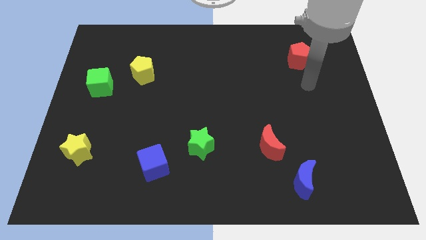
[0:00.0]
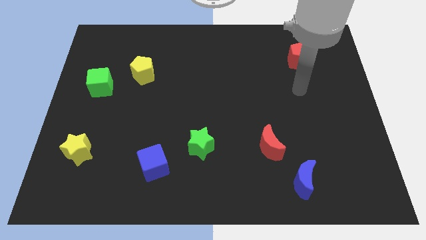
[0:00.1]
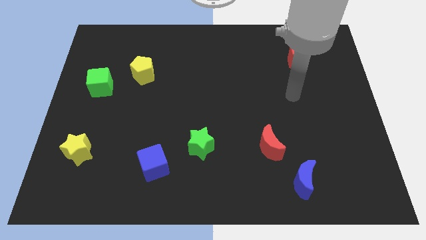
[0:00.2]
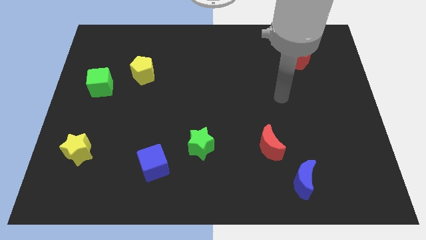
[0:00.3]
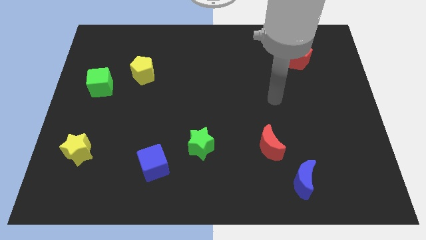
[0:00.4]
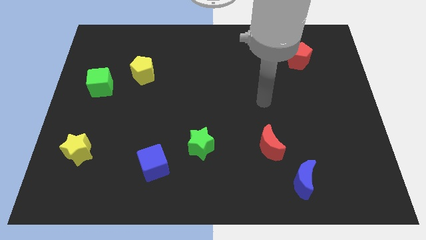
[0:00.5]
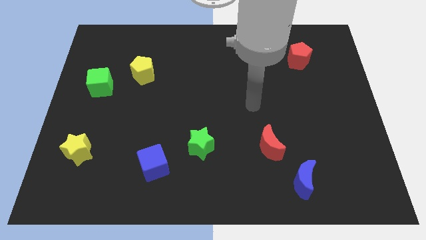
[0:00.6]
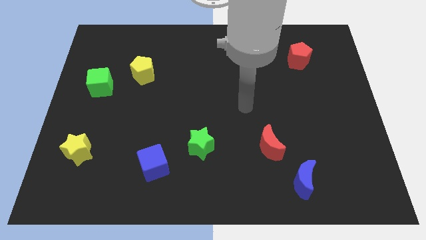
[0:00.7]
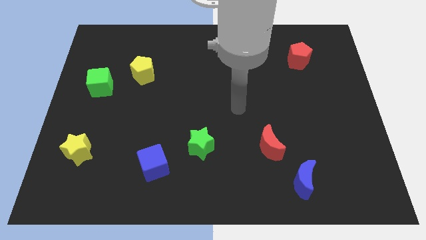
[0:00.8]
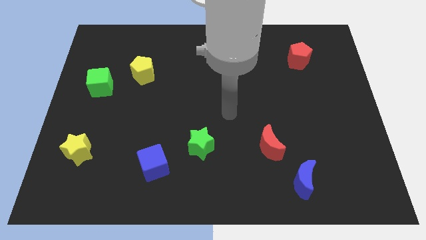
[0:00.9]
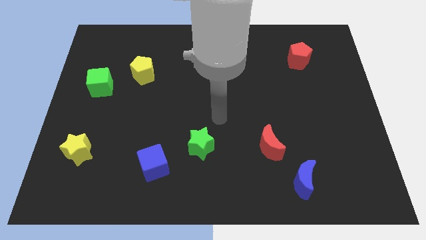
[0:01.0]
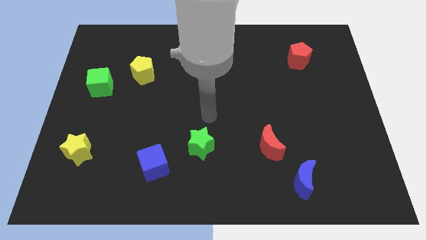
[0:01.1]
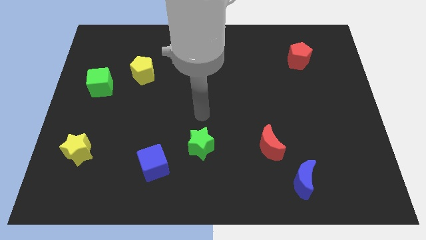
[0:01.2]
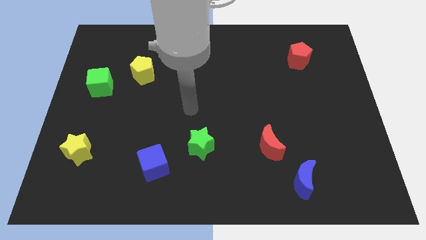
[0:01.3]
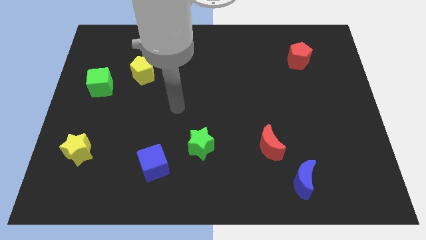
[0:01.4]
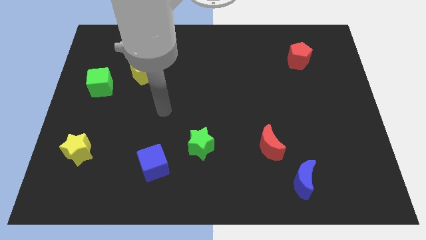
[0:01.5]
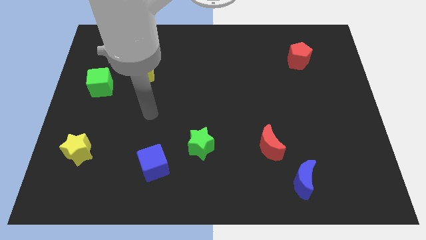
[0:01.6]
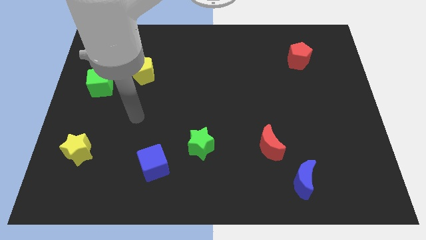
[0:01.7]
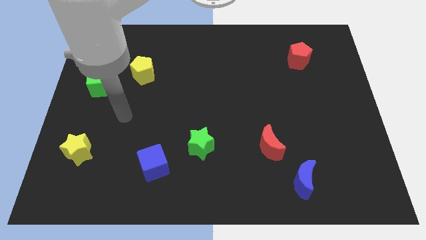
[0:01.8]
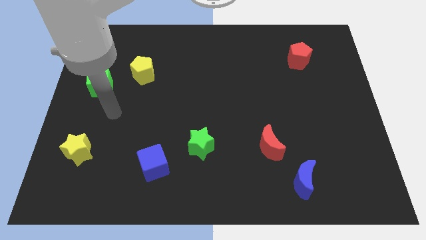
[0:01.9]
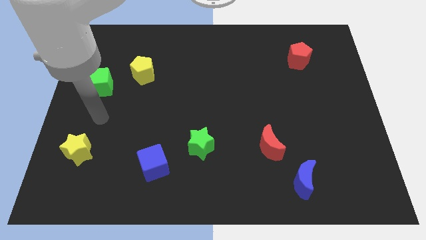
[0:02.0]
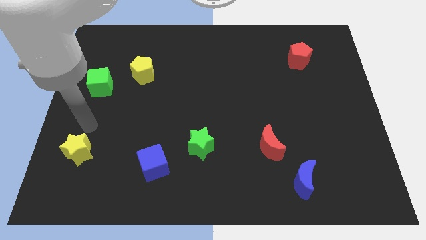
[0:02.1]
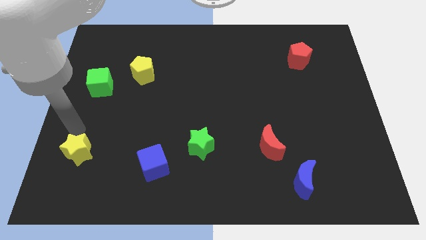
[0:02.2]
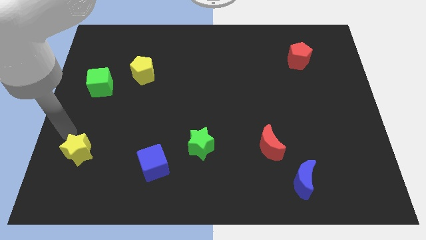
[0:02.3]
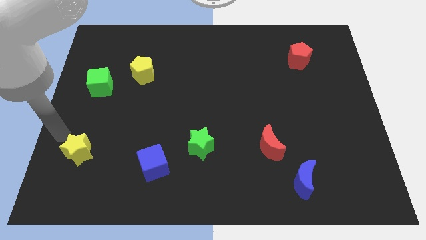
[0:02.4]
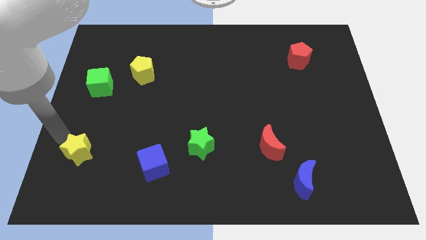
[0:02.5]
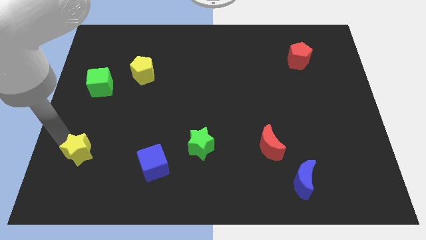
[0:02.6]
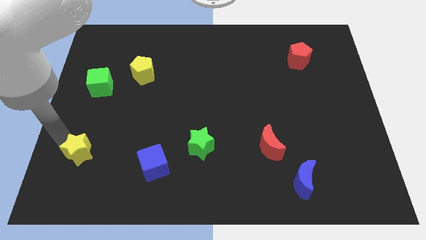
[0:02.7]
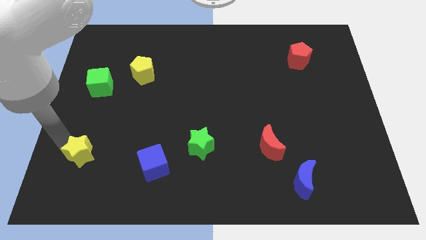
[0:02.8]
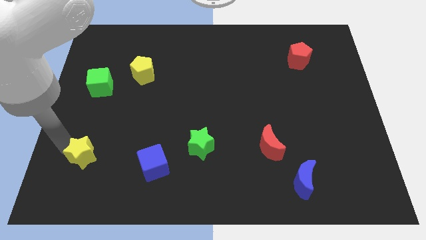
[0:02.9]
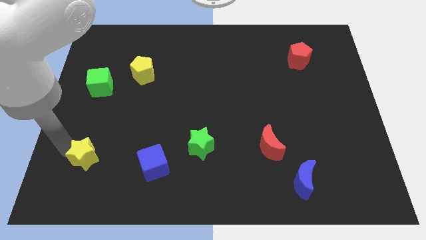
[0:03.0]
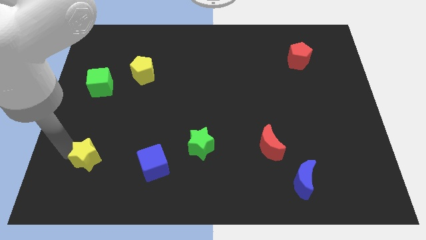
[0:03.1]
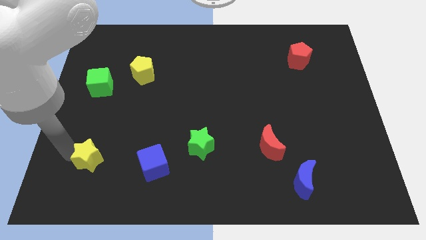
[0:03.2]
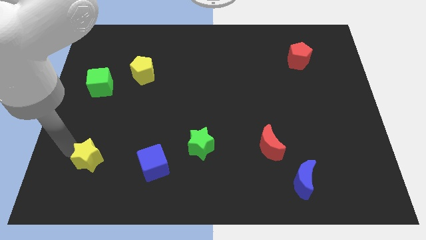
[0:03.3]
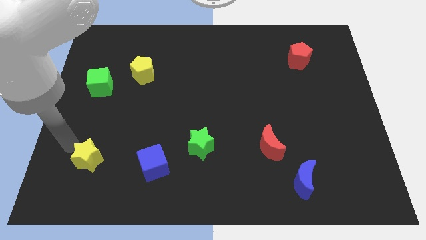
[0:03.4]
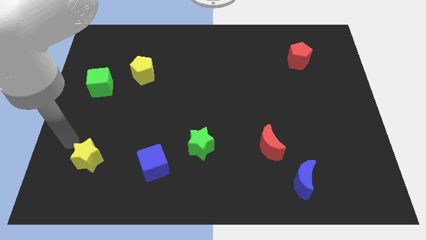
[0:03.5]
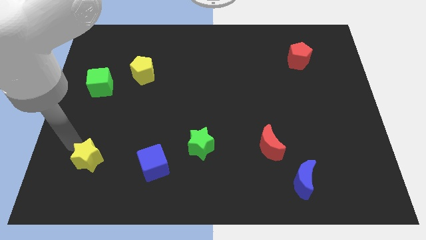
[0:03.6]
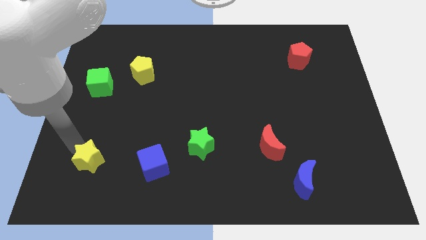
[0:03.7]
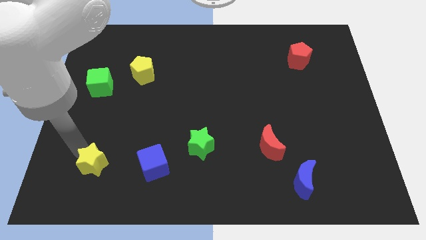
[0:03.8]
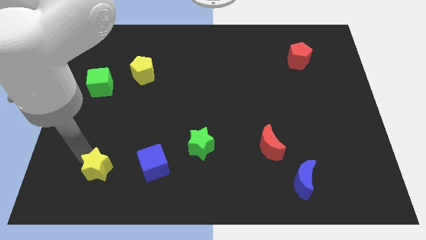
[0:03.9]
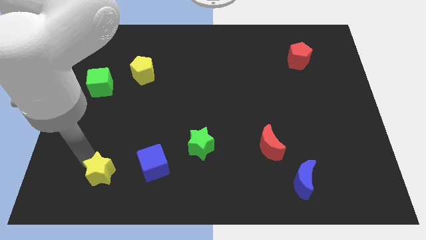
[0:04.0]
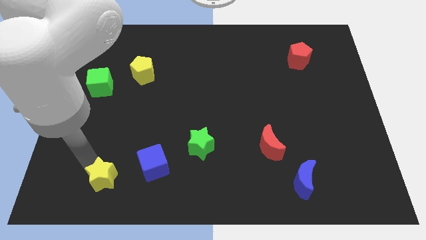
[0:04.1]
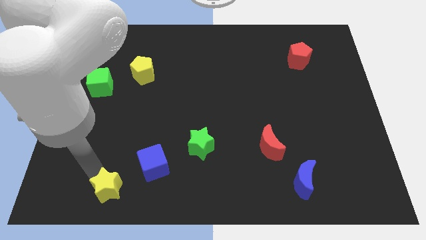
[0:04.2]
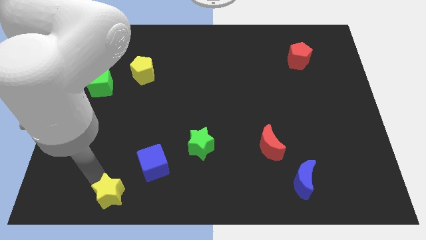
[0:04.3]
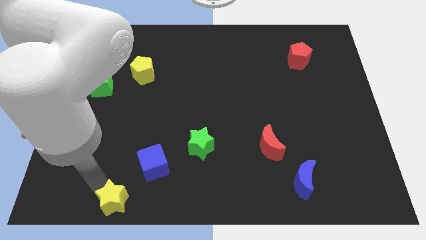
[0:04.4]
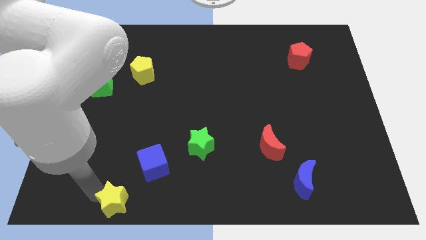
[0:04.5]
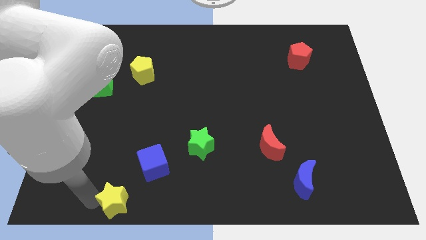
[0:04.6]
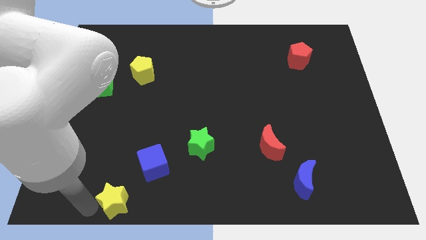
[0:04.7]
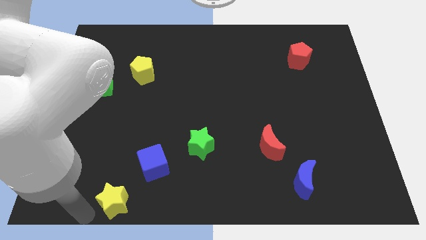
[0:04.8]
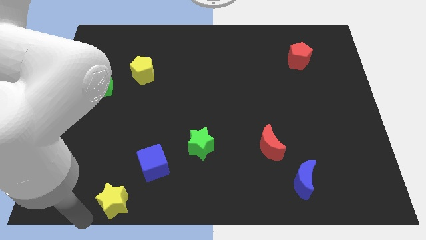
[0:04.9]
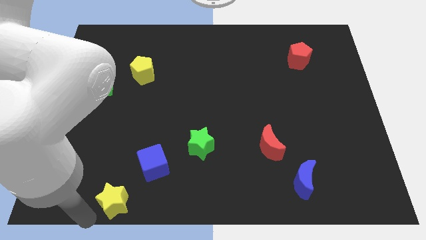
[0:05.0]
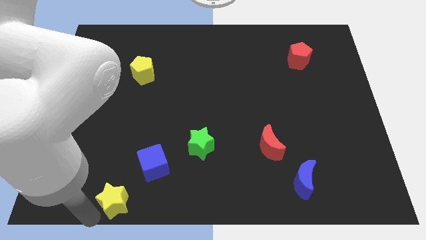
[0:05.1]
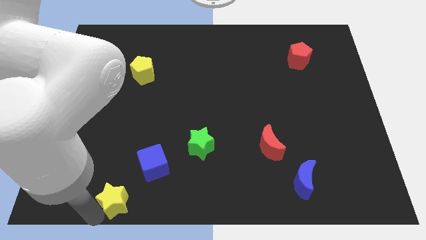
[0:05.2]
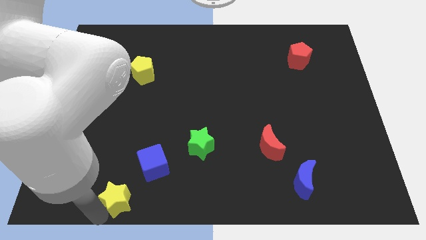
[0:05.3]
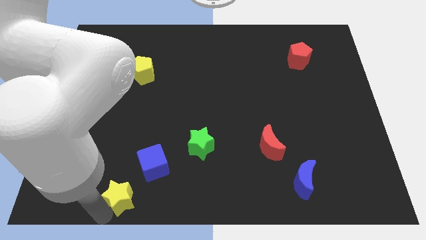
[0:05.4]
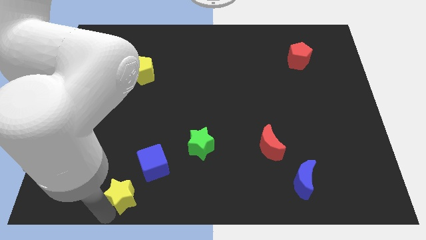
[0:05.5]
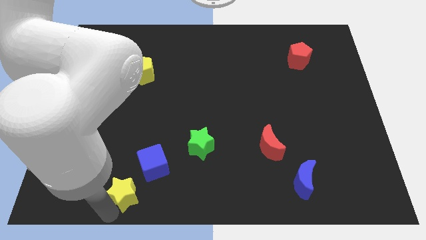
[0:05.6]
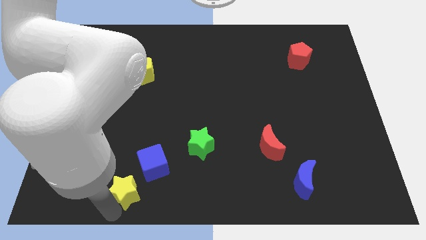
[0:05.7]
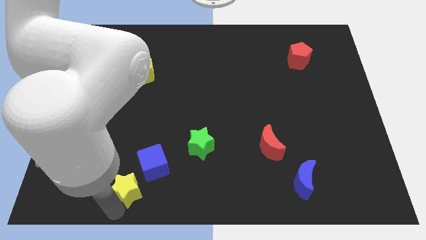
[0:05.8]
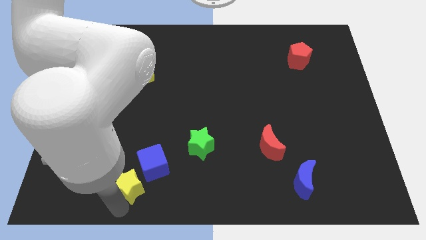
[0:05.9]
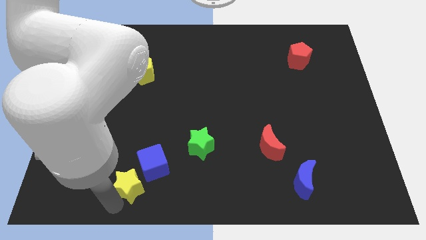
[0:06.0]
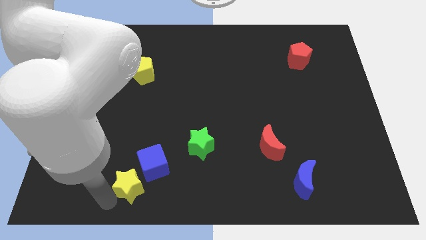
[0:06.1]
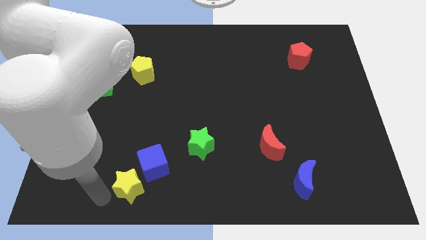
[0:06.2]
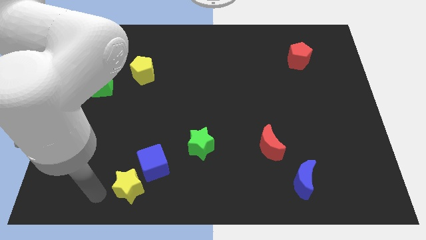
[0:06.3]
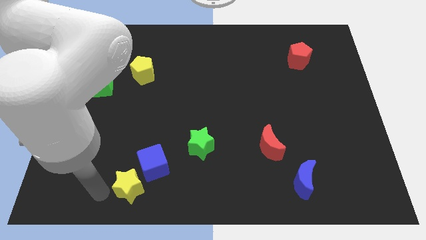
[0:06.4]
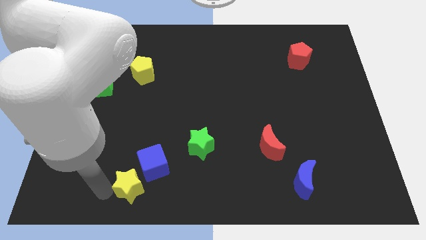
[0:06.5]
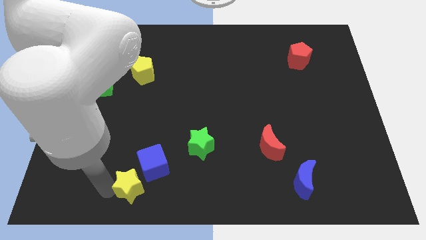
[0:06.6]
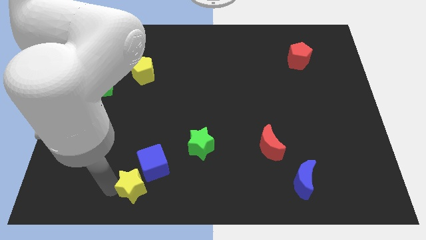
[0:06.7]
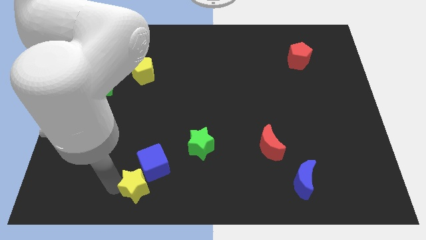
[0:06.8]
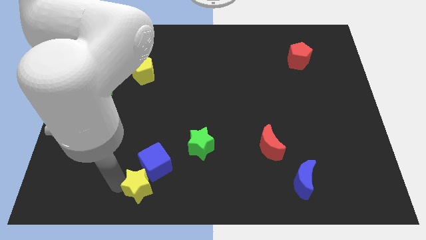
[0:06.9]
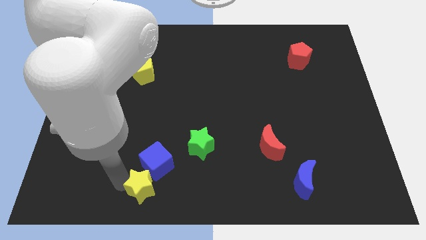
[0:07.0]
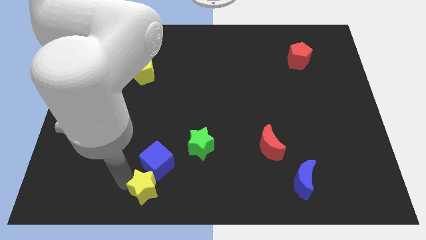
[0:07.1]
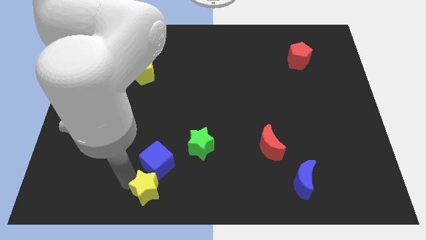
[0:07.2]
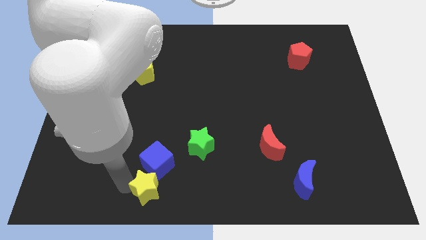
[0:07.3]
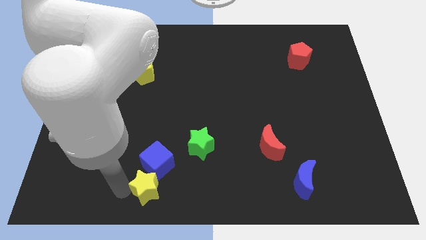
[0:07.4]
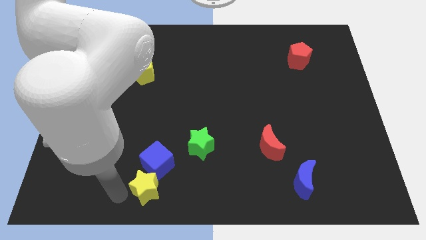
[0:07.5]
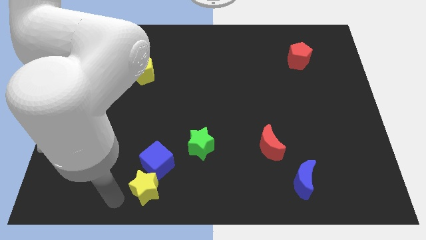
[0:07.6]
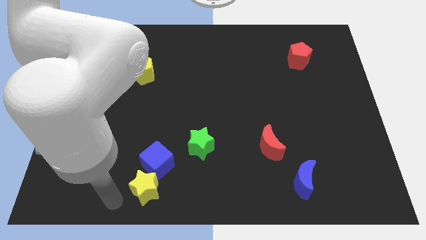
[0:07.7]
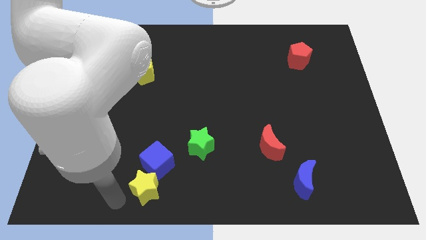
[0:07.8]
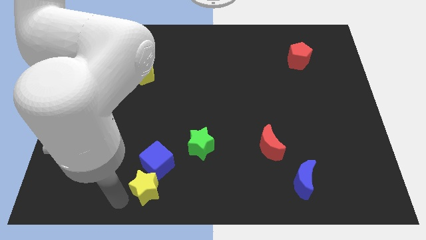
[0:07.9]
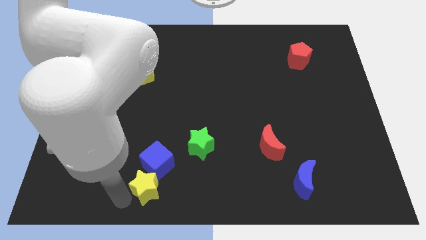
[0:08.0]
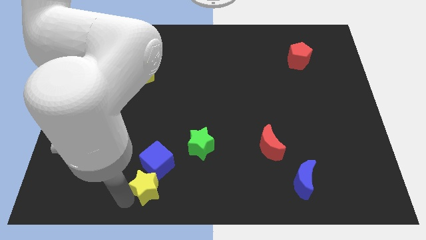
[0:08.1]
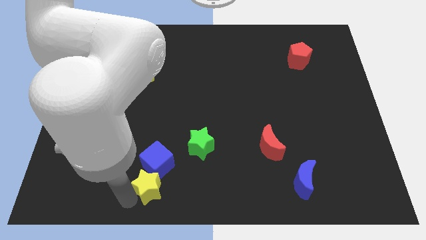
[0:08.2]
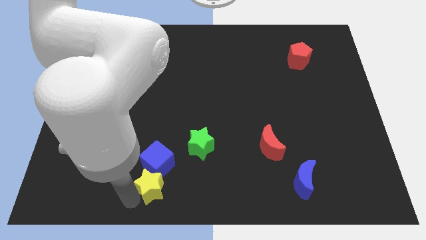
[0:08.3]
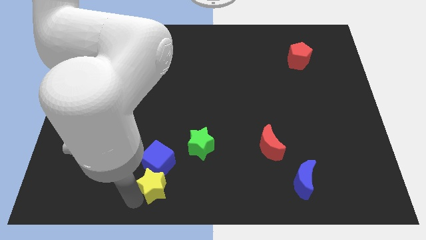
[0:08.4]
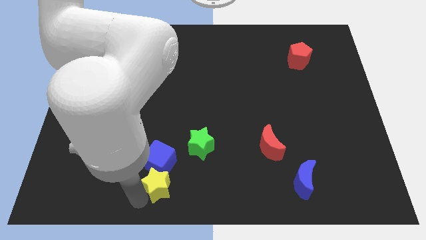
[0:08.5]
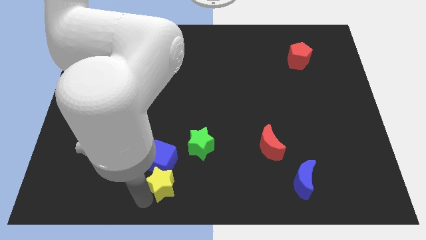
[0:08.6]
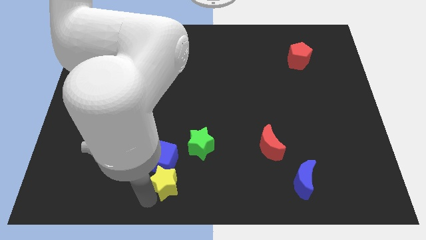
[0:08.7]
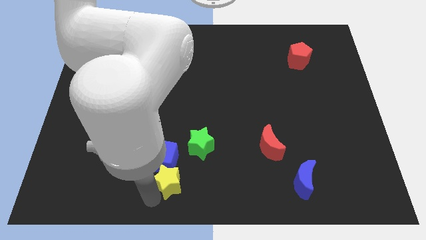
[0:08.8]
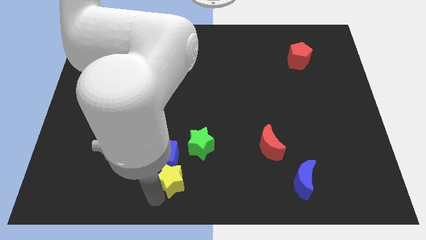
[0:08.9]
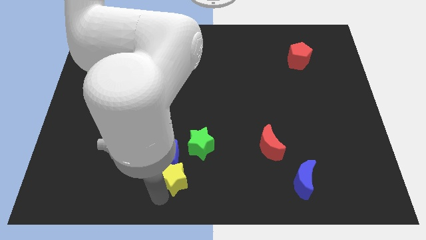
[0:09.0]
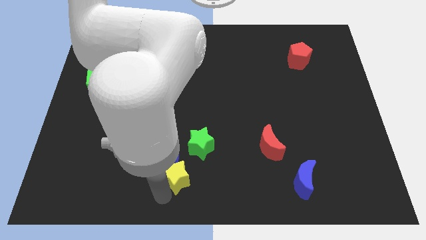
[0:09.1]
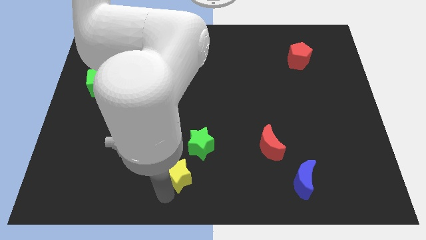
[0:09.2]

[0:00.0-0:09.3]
move the yellow star to the right
